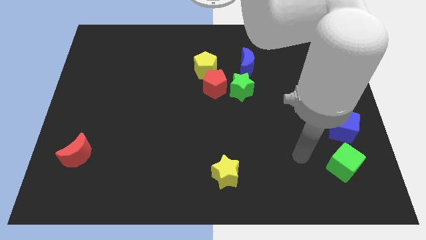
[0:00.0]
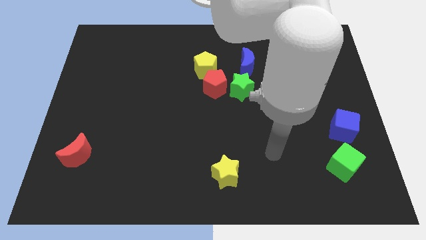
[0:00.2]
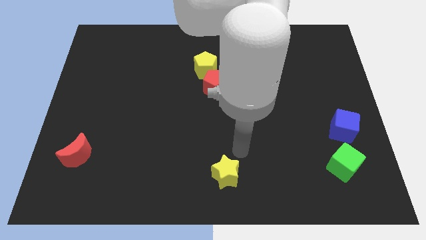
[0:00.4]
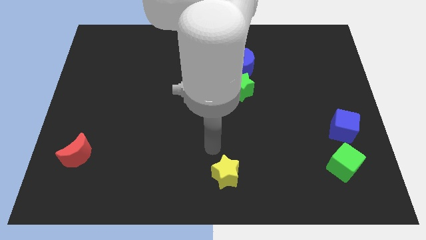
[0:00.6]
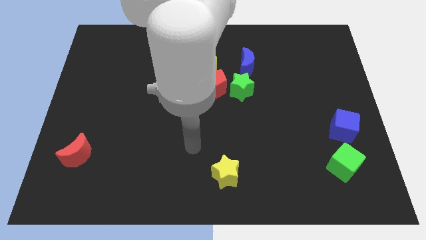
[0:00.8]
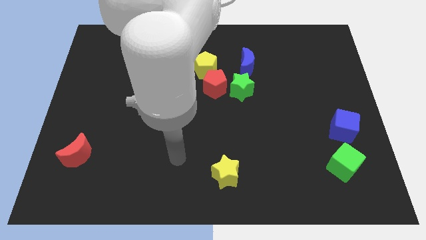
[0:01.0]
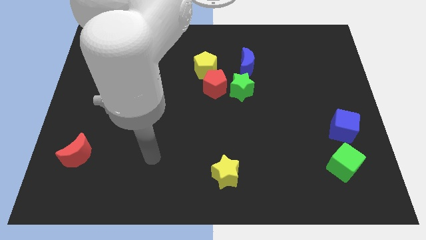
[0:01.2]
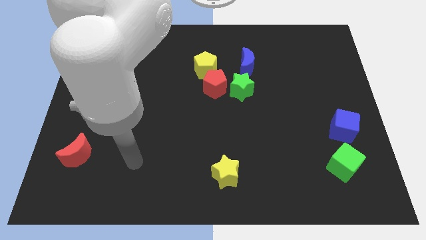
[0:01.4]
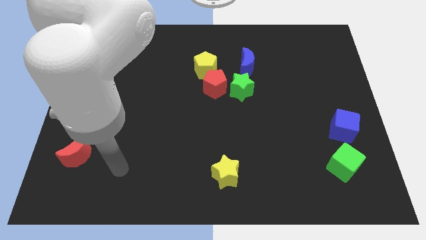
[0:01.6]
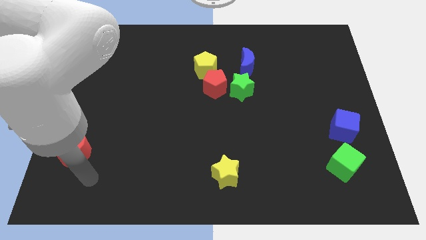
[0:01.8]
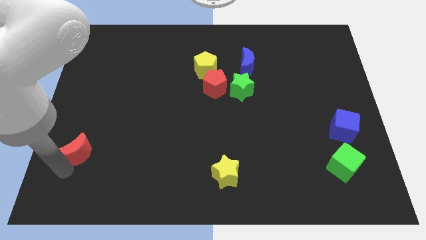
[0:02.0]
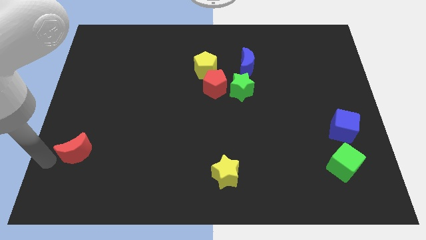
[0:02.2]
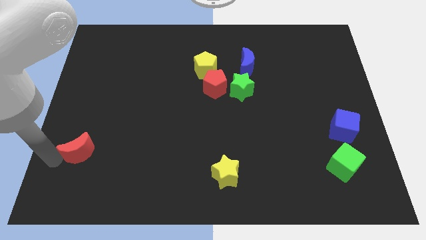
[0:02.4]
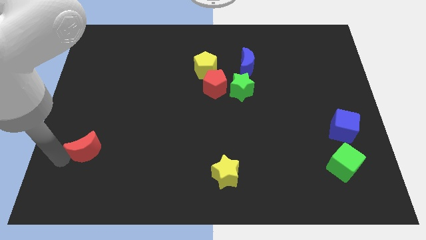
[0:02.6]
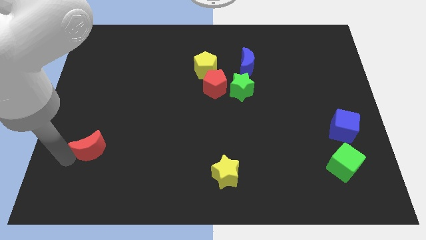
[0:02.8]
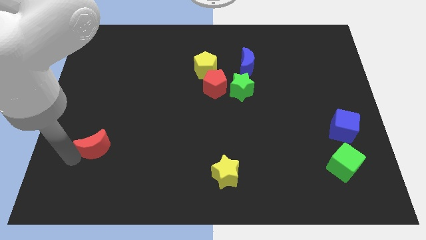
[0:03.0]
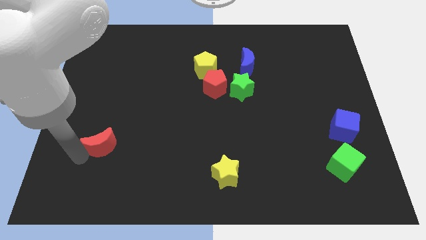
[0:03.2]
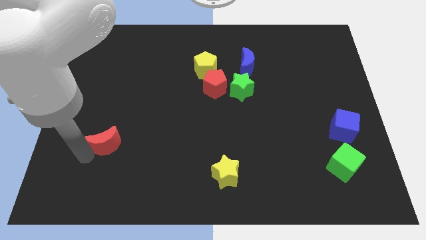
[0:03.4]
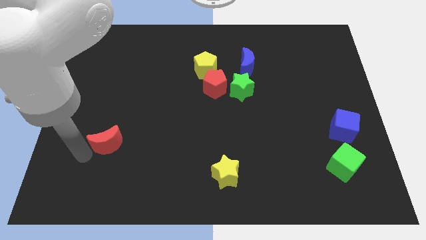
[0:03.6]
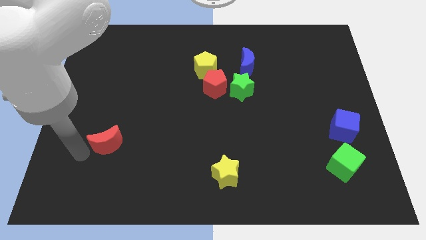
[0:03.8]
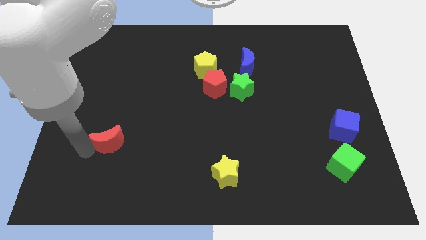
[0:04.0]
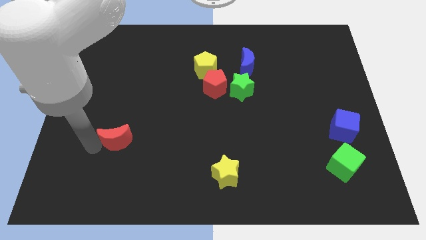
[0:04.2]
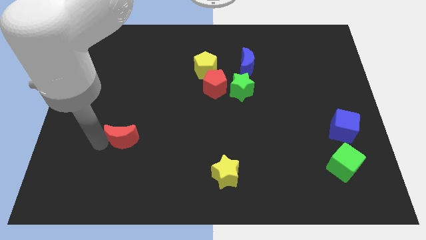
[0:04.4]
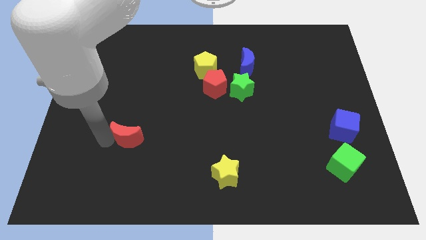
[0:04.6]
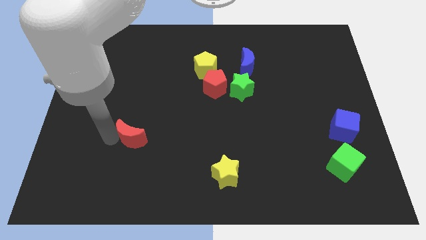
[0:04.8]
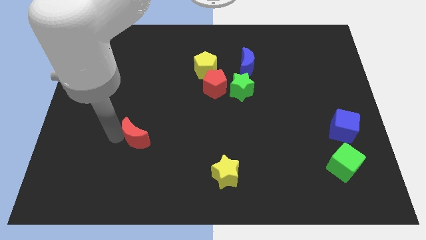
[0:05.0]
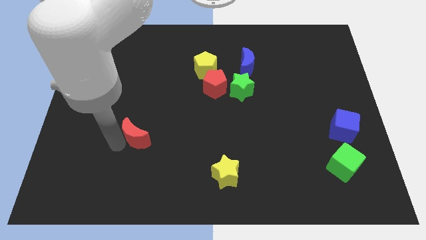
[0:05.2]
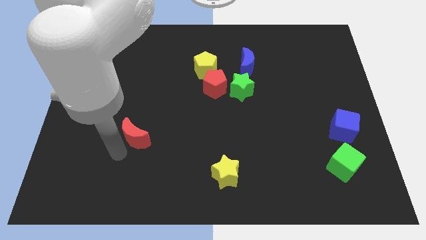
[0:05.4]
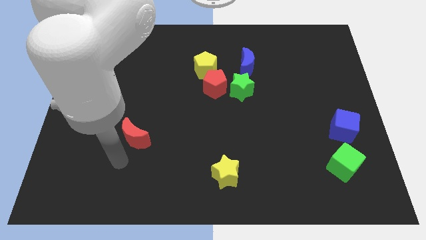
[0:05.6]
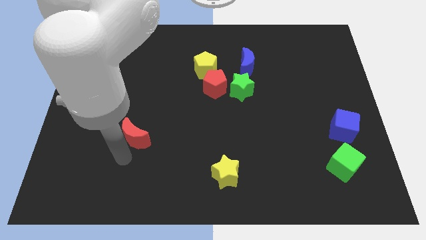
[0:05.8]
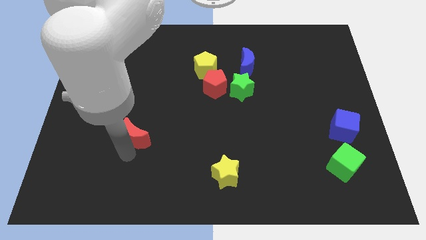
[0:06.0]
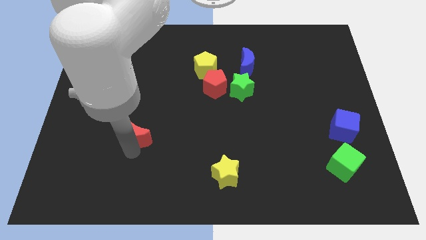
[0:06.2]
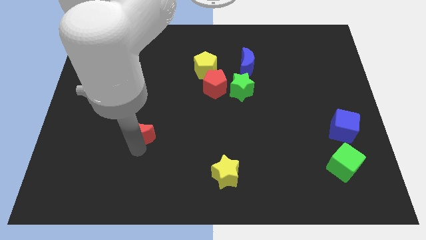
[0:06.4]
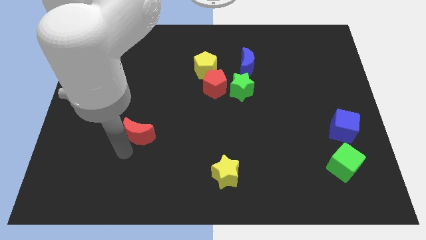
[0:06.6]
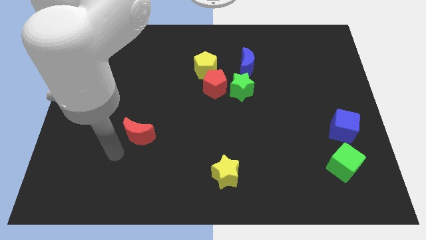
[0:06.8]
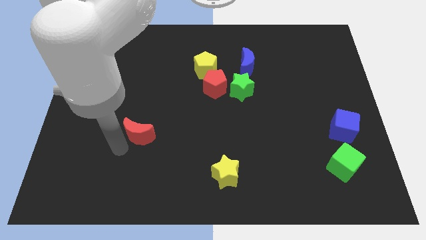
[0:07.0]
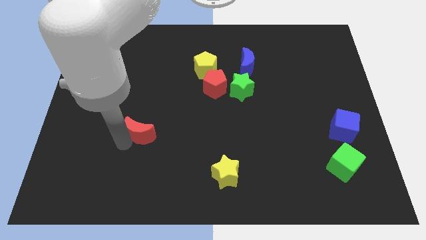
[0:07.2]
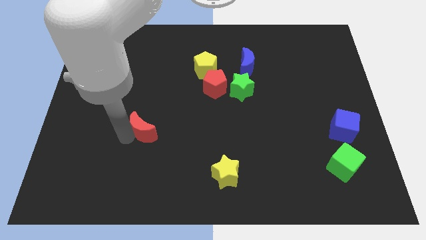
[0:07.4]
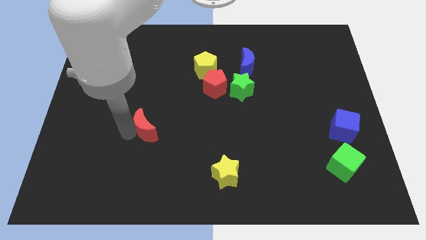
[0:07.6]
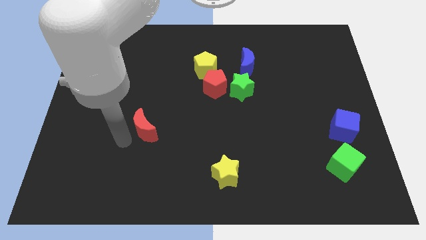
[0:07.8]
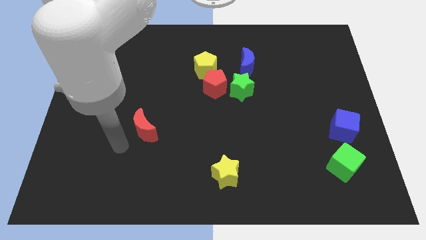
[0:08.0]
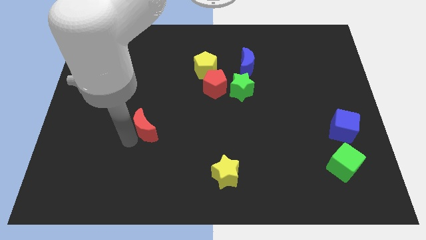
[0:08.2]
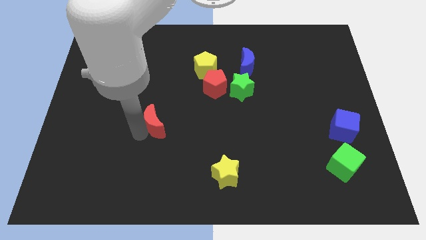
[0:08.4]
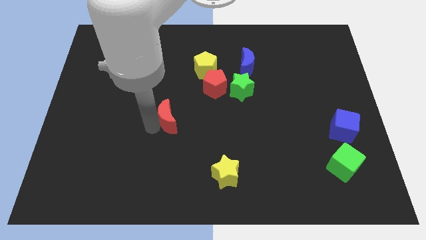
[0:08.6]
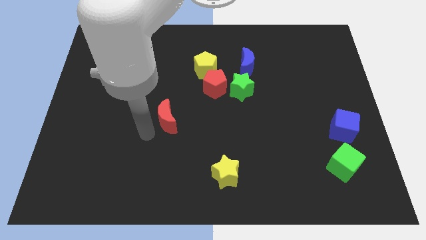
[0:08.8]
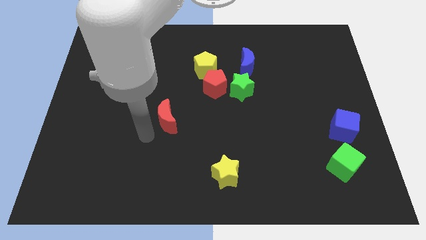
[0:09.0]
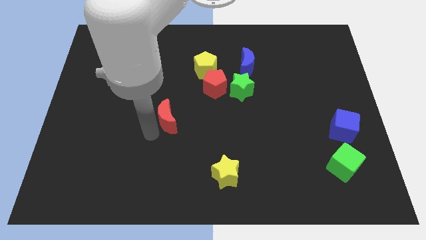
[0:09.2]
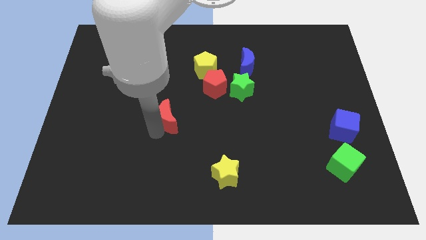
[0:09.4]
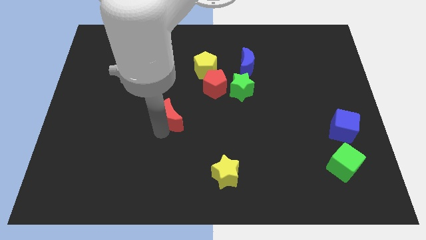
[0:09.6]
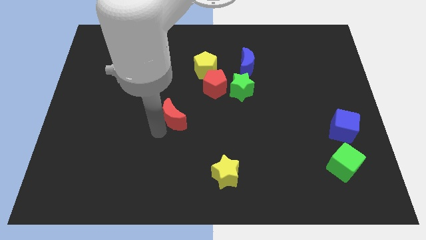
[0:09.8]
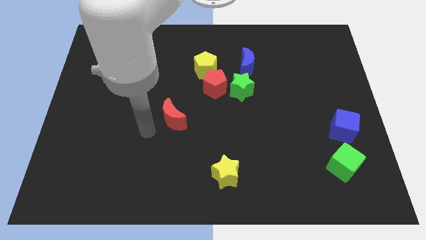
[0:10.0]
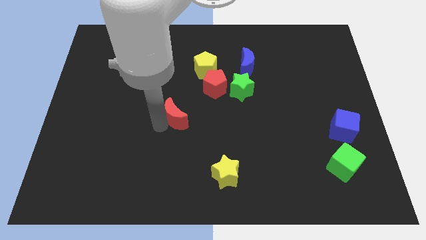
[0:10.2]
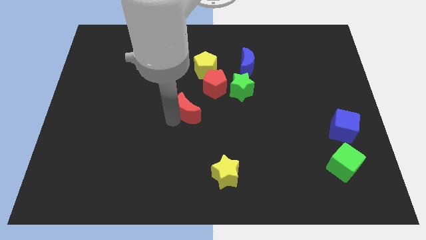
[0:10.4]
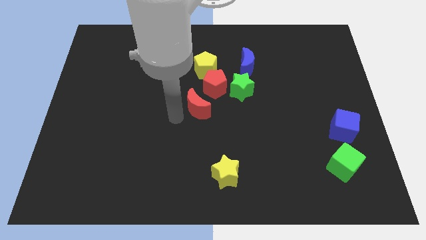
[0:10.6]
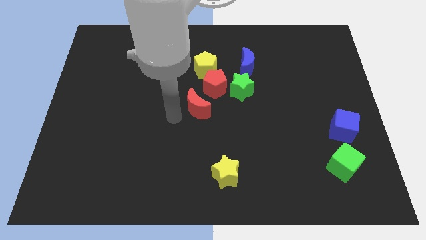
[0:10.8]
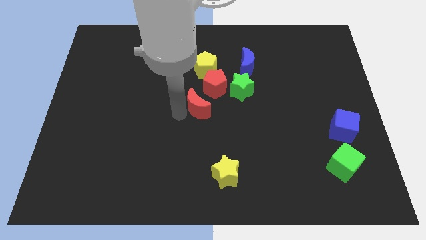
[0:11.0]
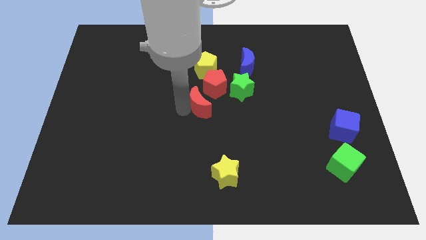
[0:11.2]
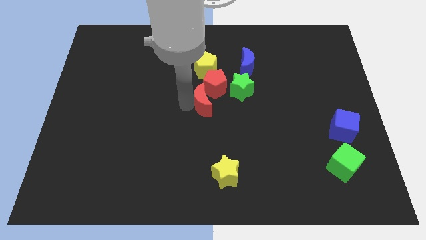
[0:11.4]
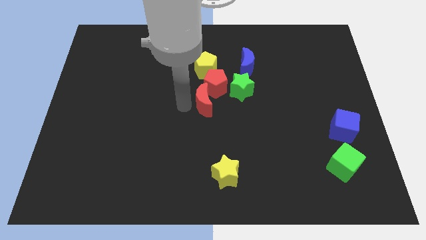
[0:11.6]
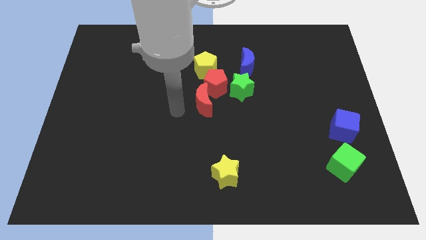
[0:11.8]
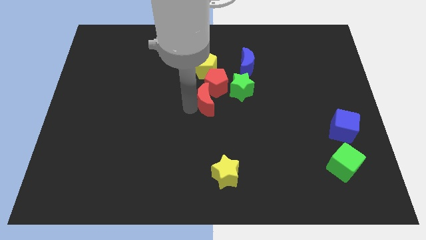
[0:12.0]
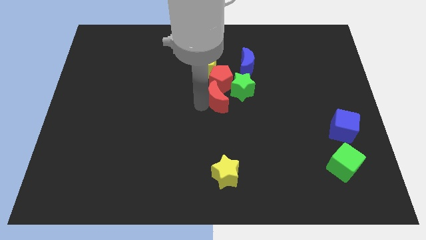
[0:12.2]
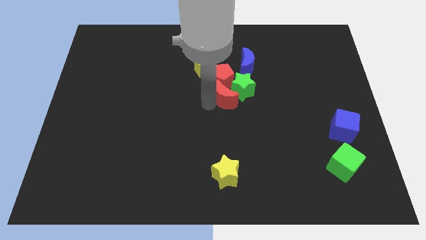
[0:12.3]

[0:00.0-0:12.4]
slide the red moon close to the green star
